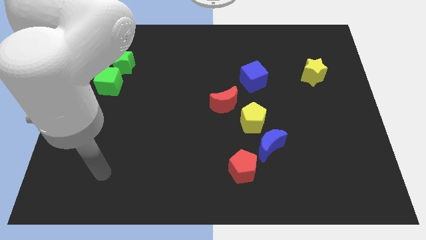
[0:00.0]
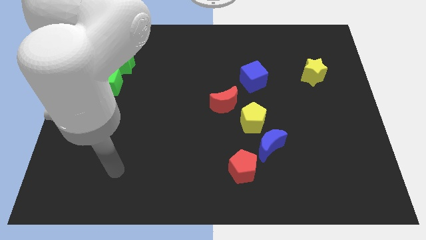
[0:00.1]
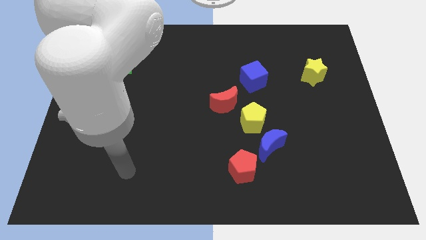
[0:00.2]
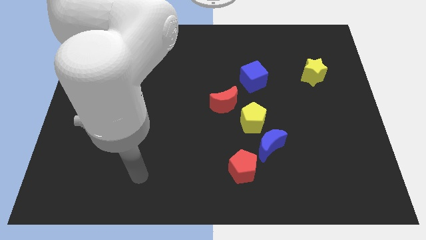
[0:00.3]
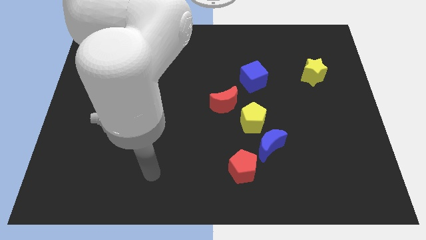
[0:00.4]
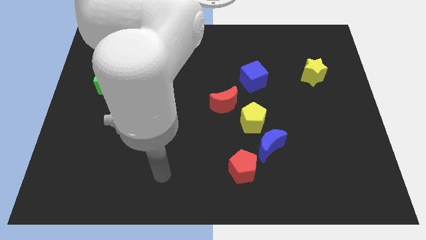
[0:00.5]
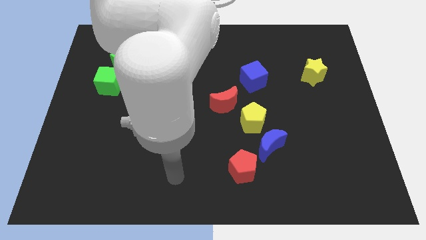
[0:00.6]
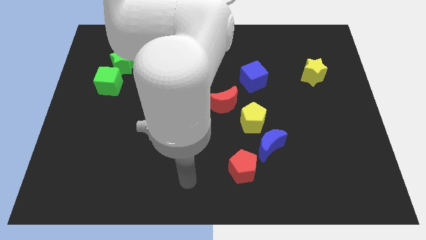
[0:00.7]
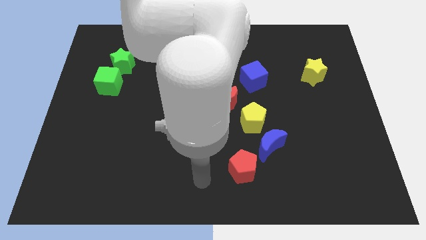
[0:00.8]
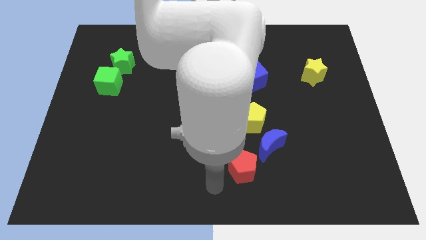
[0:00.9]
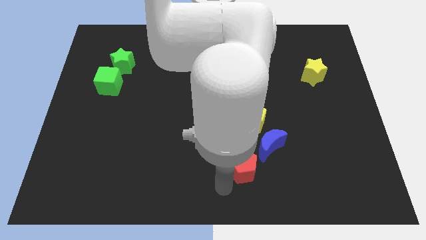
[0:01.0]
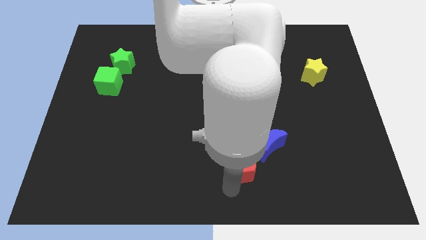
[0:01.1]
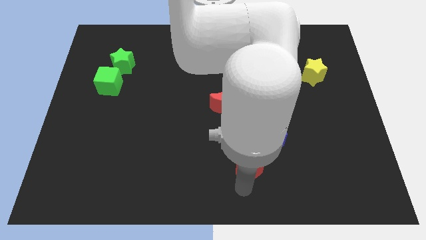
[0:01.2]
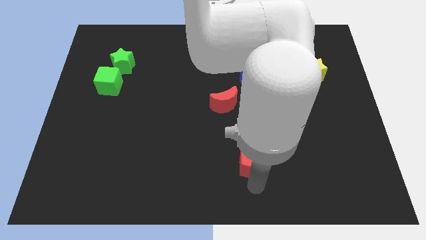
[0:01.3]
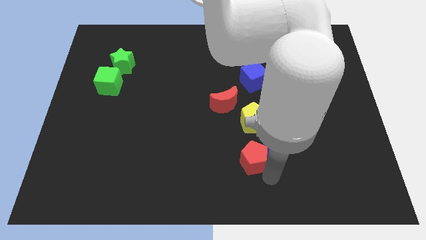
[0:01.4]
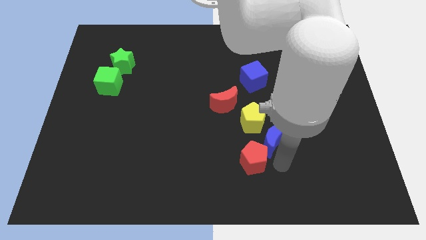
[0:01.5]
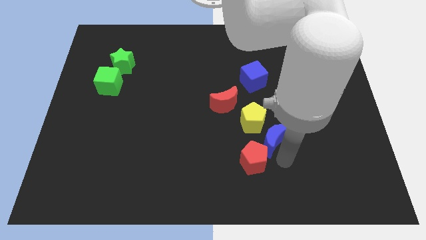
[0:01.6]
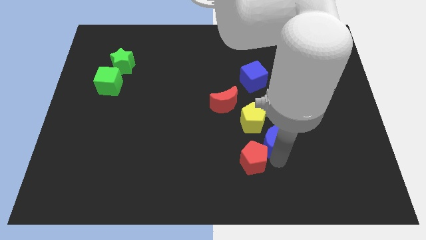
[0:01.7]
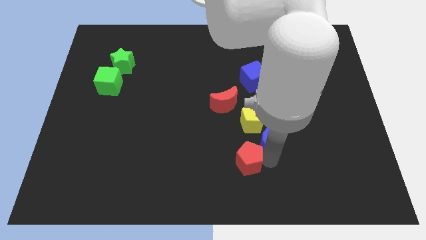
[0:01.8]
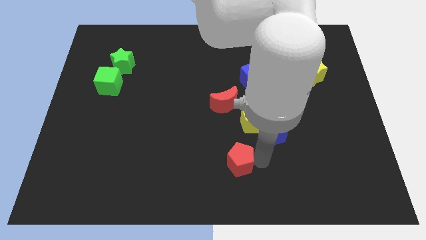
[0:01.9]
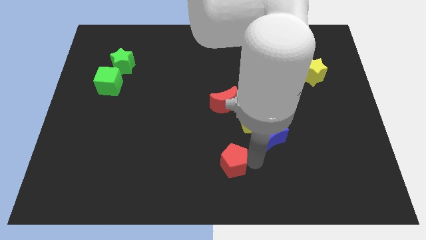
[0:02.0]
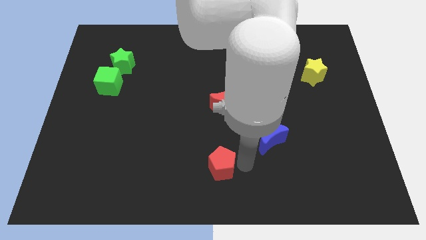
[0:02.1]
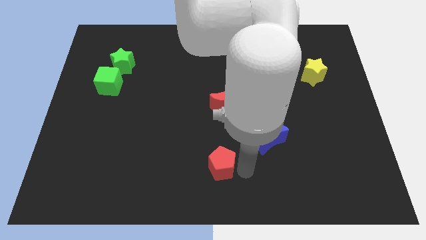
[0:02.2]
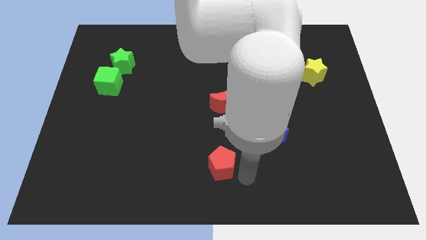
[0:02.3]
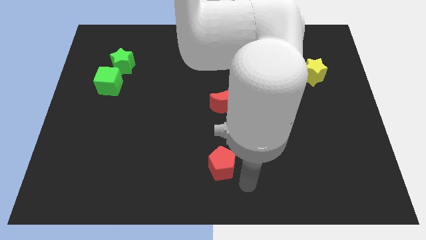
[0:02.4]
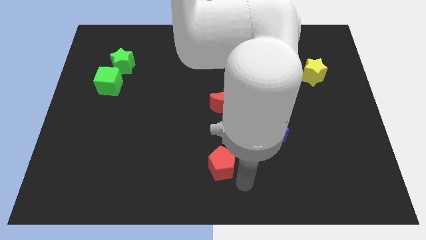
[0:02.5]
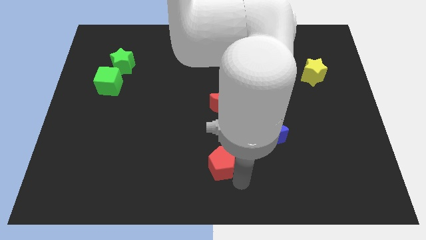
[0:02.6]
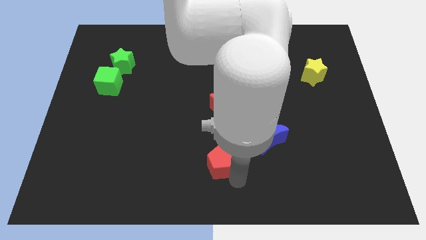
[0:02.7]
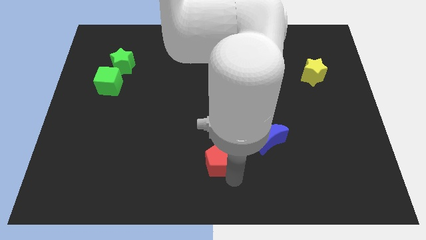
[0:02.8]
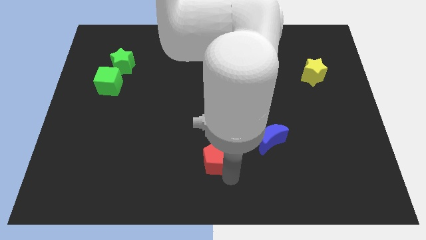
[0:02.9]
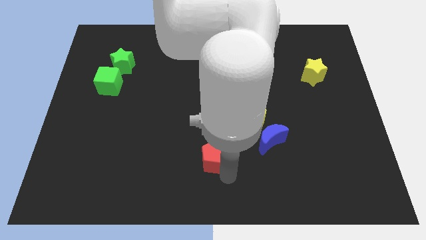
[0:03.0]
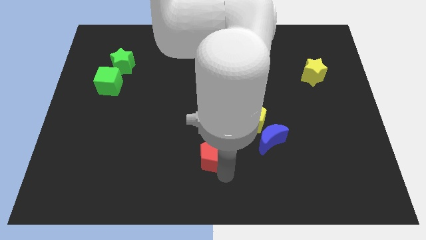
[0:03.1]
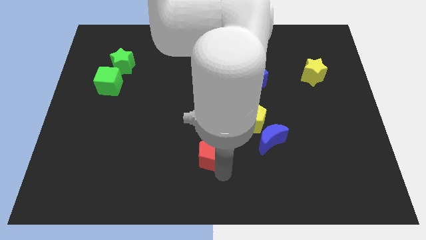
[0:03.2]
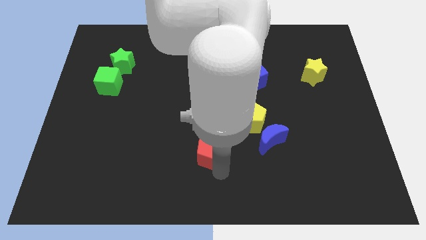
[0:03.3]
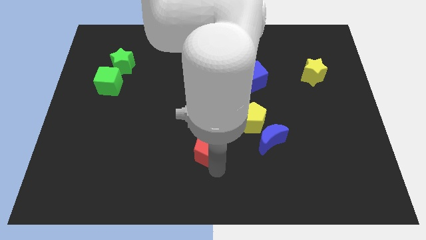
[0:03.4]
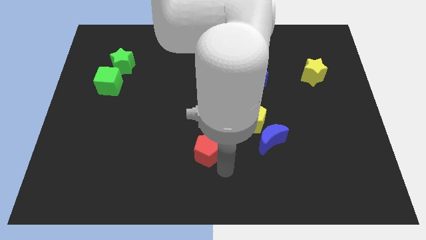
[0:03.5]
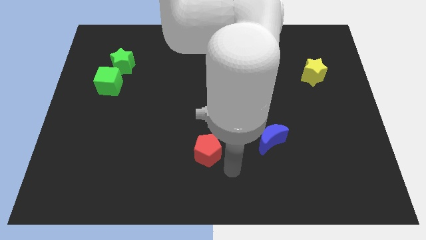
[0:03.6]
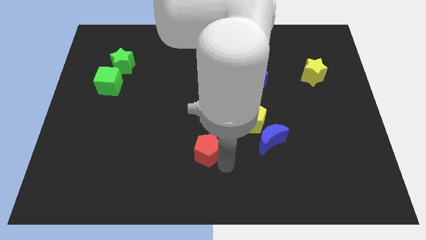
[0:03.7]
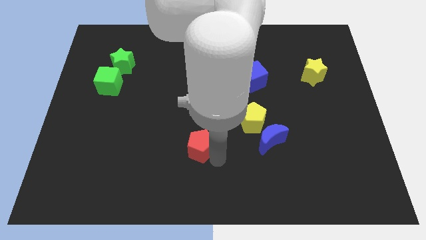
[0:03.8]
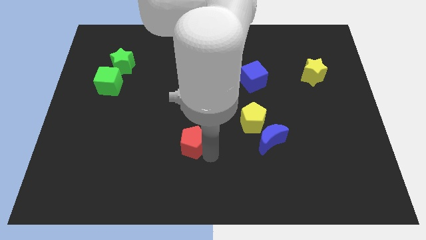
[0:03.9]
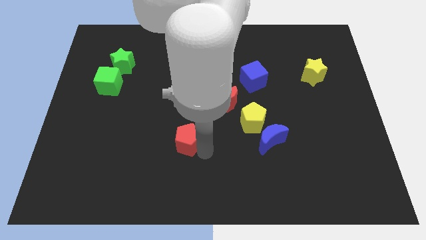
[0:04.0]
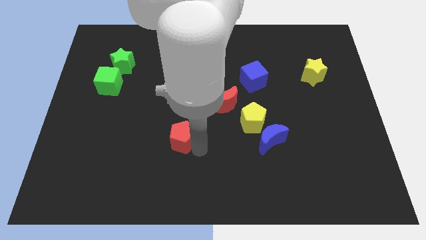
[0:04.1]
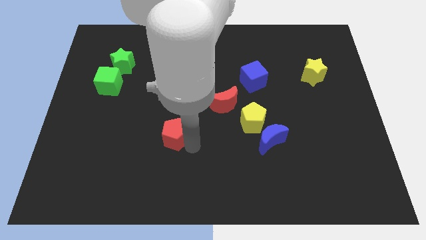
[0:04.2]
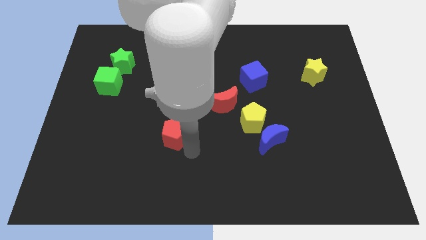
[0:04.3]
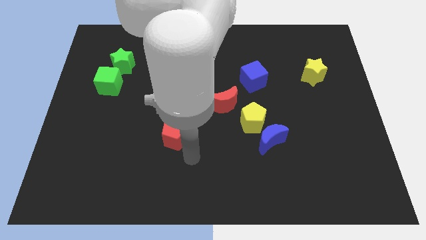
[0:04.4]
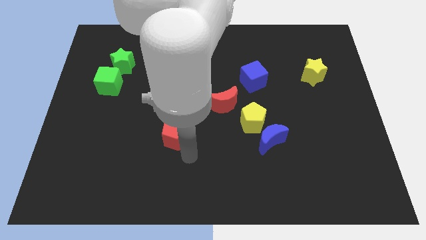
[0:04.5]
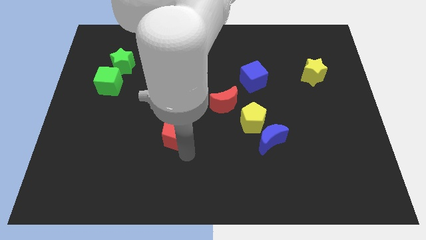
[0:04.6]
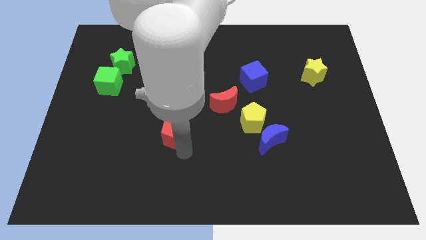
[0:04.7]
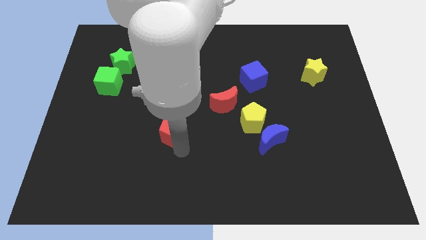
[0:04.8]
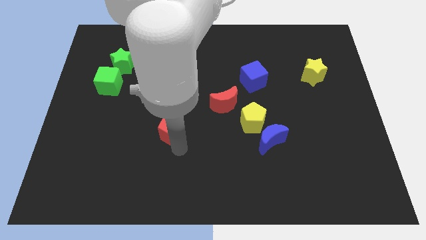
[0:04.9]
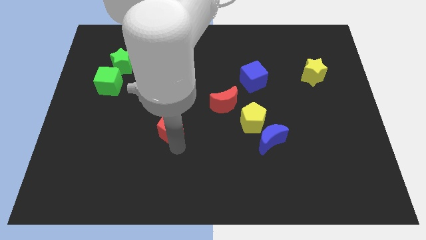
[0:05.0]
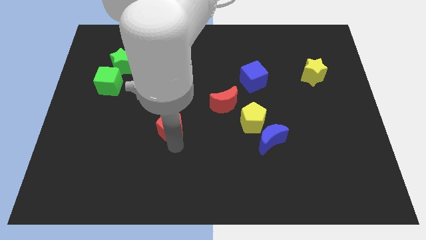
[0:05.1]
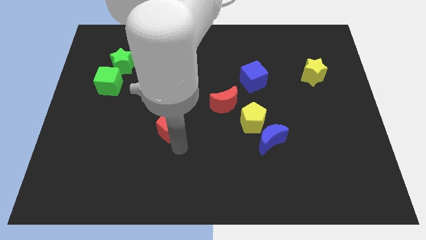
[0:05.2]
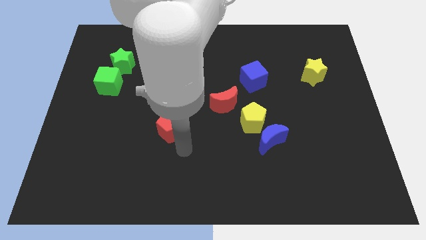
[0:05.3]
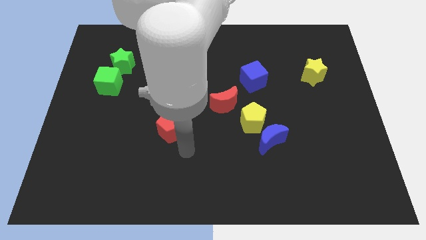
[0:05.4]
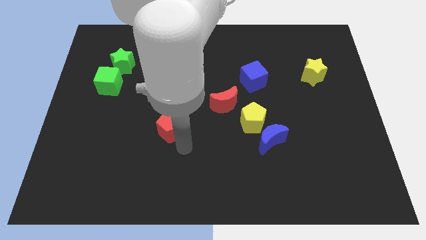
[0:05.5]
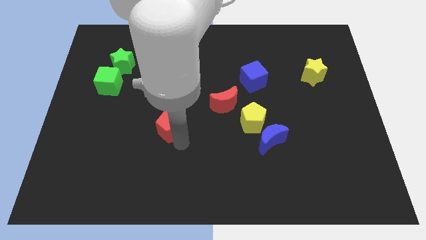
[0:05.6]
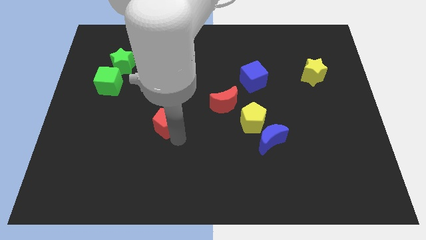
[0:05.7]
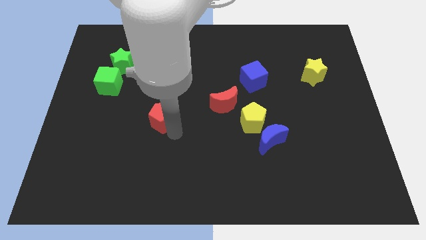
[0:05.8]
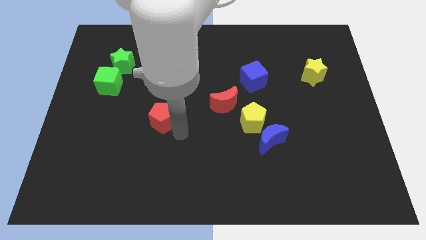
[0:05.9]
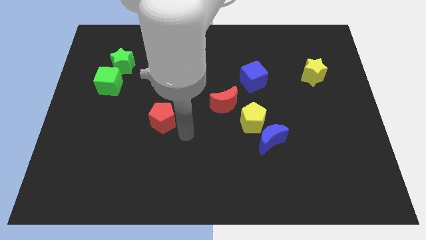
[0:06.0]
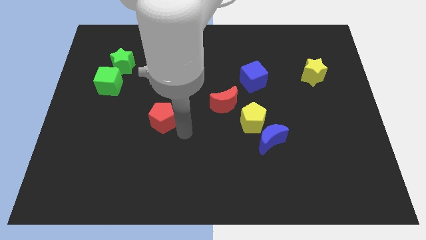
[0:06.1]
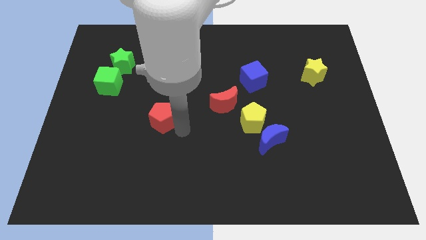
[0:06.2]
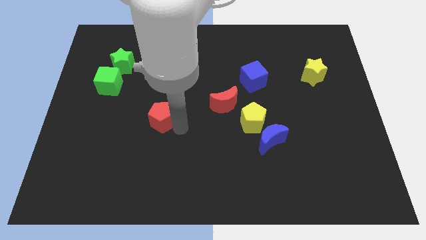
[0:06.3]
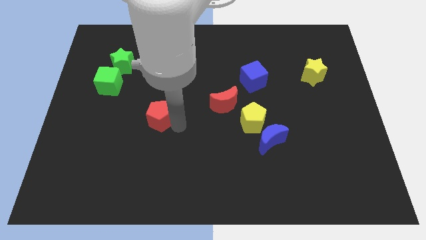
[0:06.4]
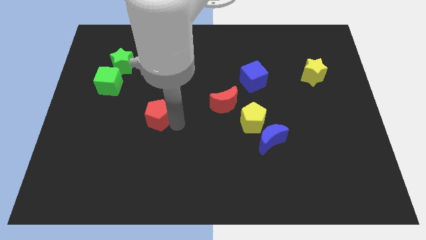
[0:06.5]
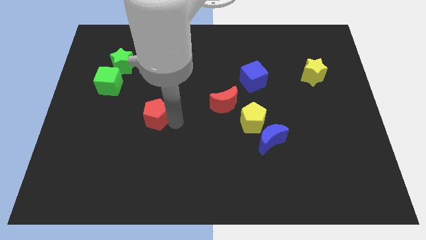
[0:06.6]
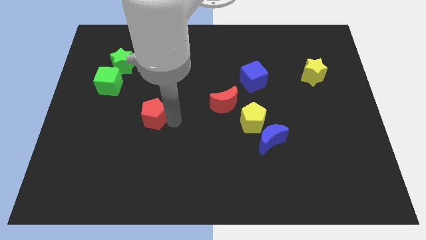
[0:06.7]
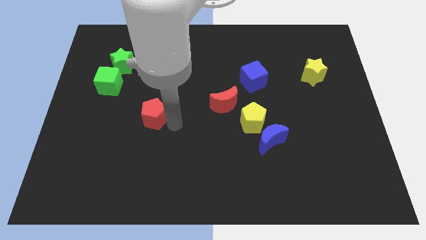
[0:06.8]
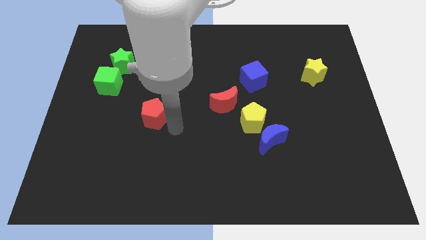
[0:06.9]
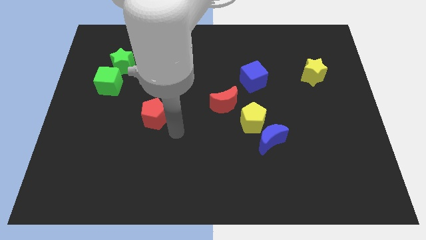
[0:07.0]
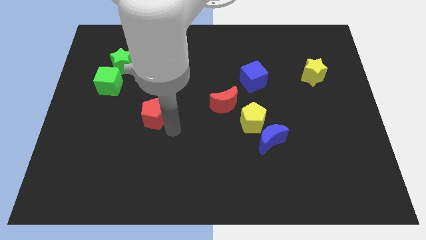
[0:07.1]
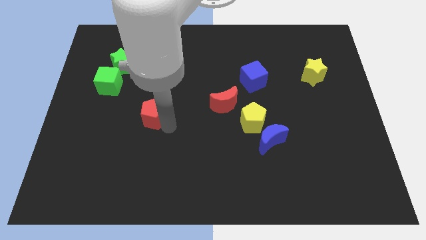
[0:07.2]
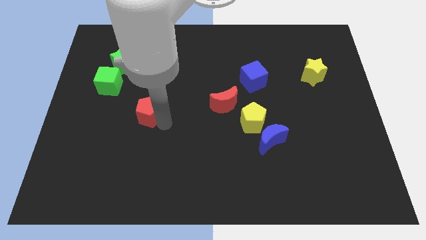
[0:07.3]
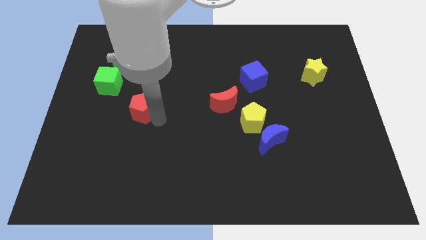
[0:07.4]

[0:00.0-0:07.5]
push the red pentagon to the bottom right of the green cube
